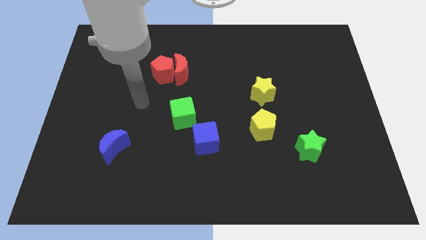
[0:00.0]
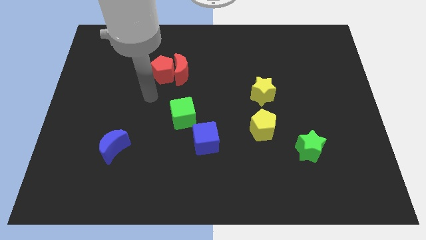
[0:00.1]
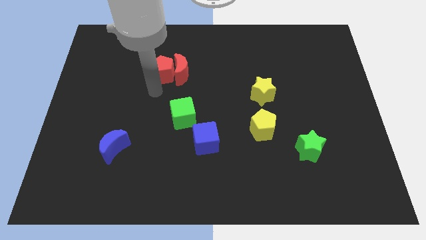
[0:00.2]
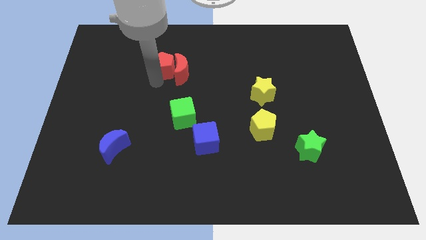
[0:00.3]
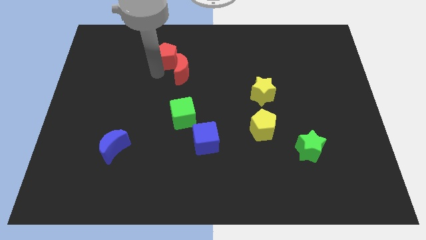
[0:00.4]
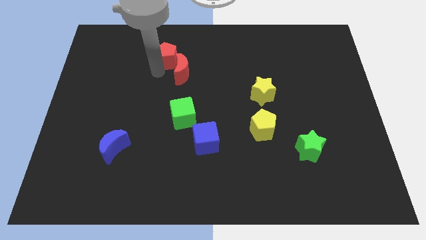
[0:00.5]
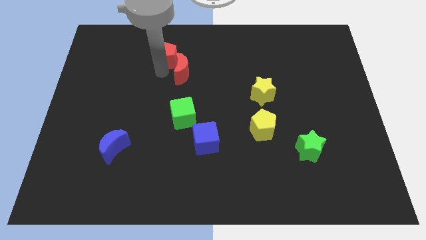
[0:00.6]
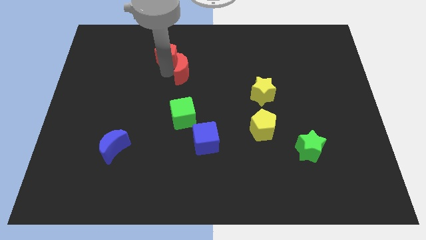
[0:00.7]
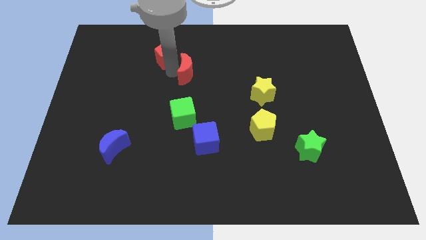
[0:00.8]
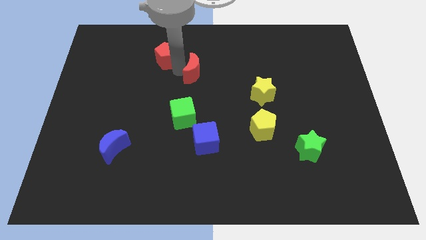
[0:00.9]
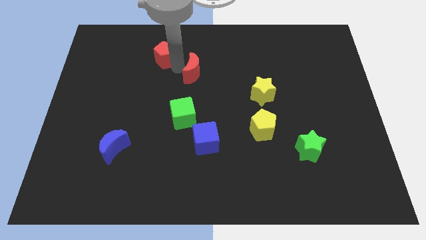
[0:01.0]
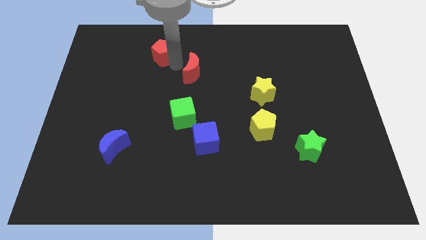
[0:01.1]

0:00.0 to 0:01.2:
move the red moon away from the red pentagon

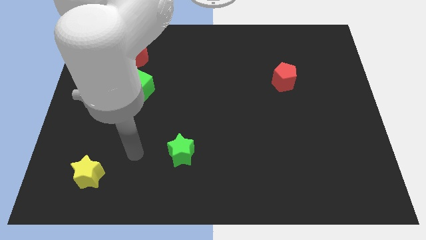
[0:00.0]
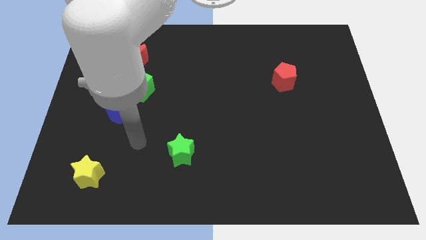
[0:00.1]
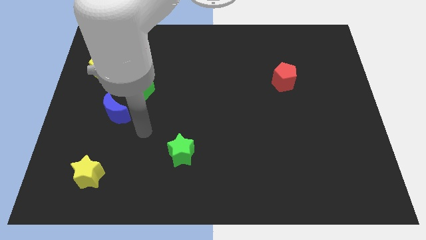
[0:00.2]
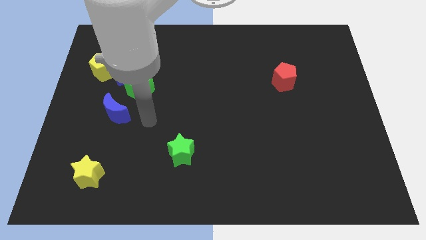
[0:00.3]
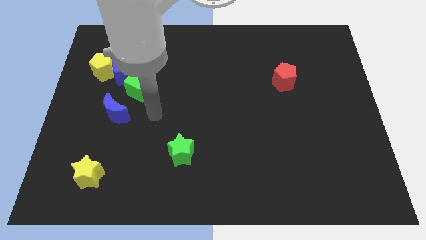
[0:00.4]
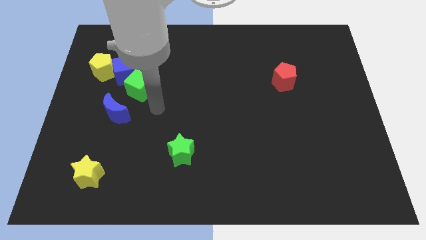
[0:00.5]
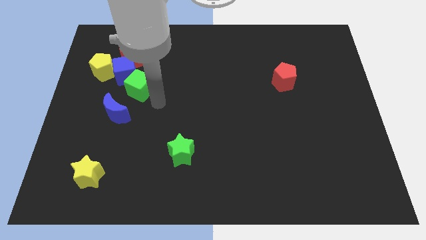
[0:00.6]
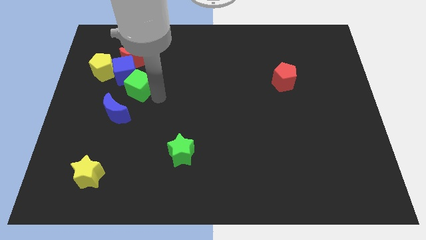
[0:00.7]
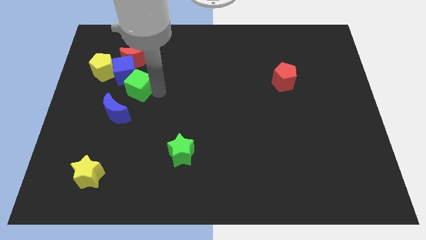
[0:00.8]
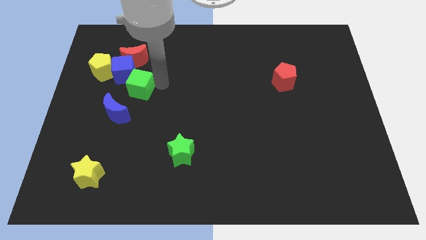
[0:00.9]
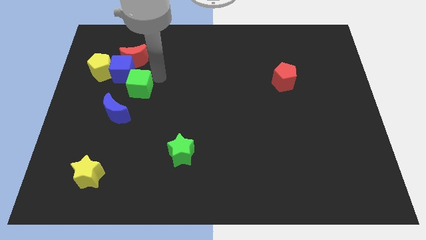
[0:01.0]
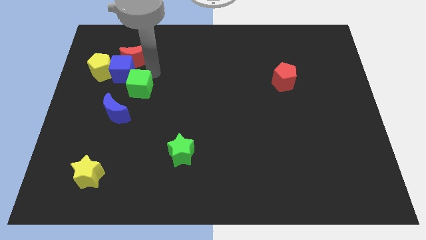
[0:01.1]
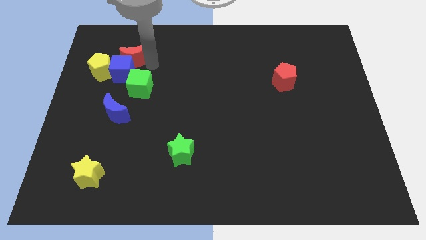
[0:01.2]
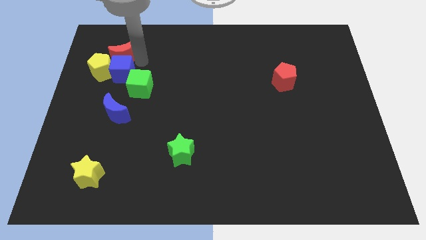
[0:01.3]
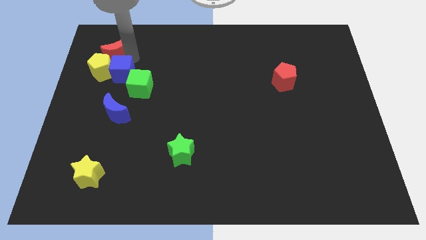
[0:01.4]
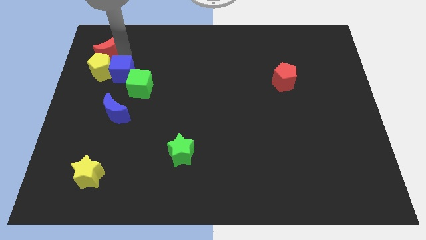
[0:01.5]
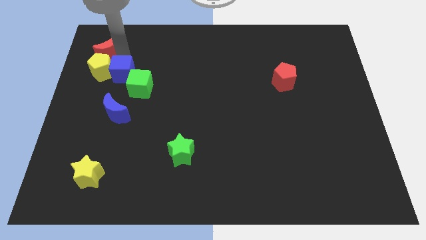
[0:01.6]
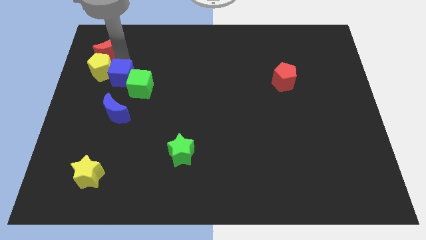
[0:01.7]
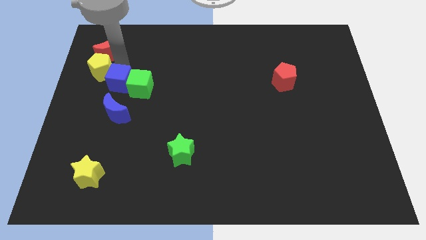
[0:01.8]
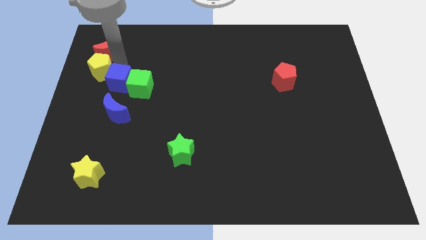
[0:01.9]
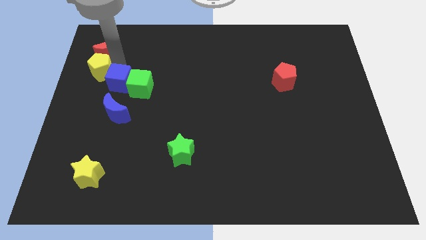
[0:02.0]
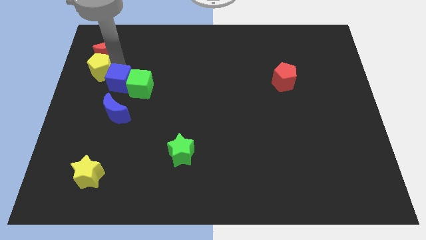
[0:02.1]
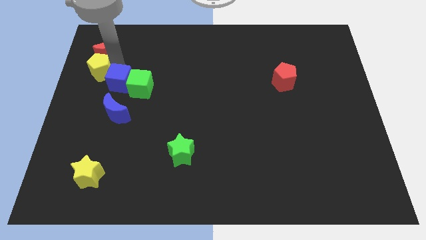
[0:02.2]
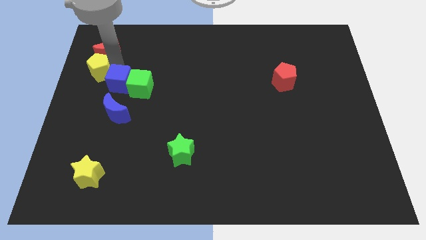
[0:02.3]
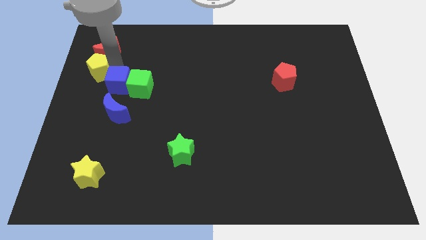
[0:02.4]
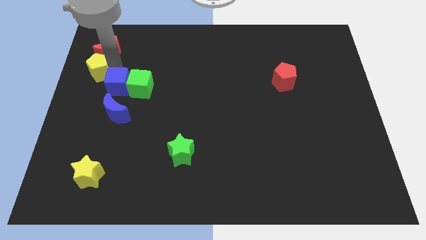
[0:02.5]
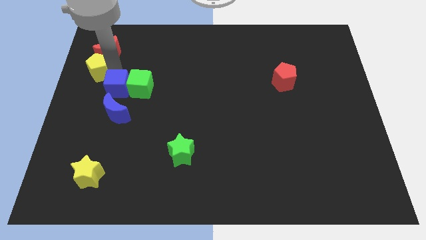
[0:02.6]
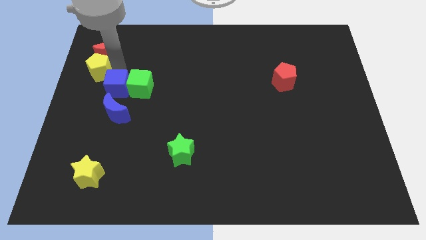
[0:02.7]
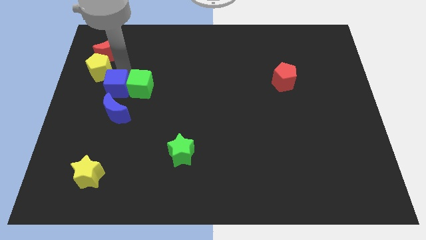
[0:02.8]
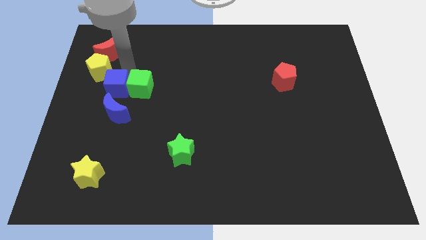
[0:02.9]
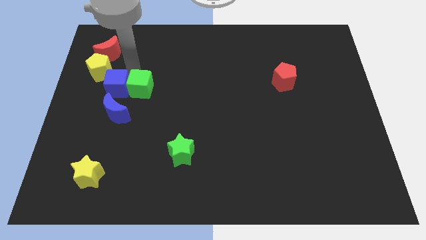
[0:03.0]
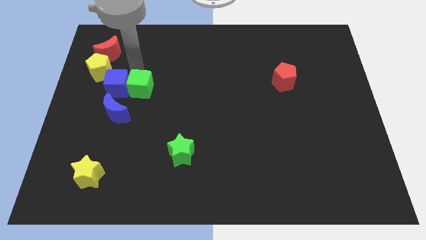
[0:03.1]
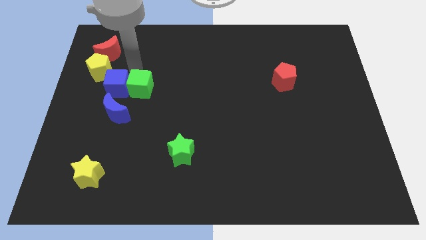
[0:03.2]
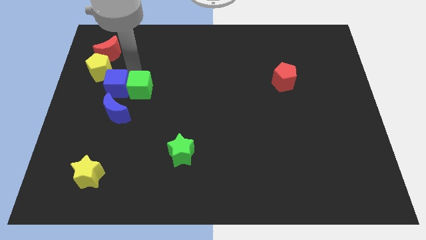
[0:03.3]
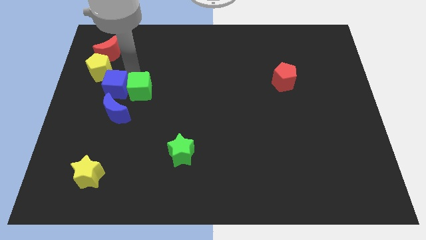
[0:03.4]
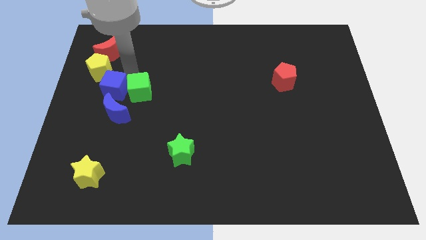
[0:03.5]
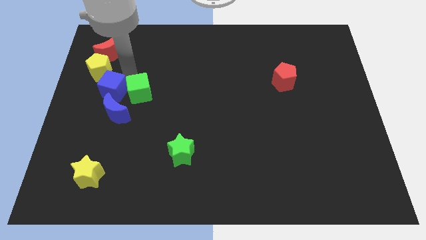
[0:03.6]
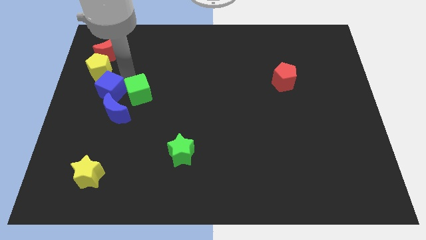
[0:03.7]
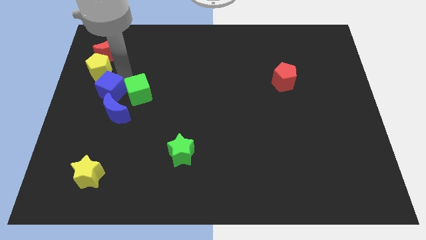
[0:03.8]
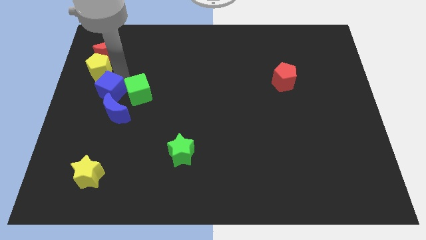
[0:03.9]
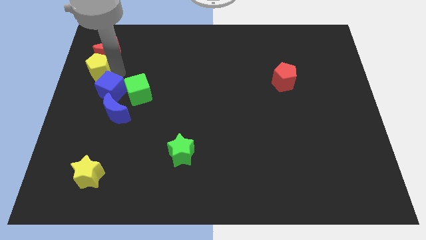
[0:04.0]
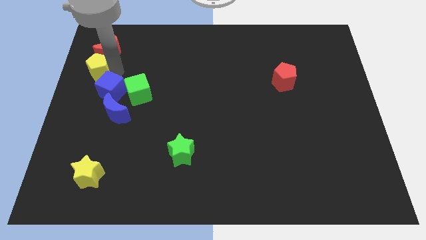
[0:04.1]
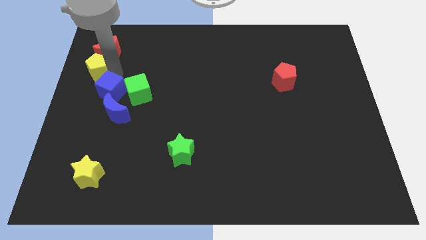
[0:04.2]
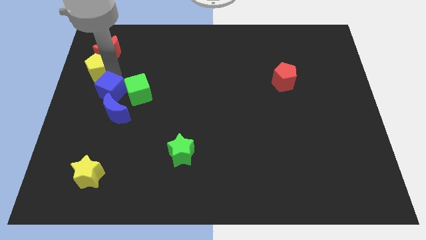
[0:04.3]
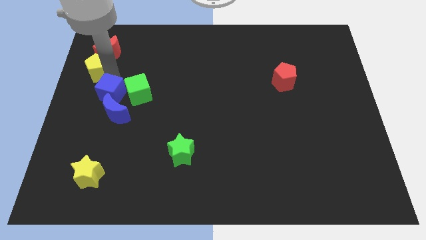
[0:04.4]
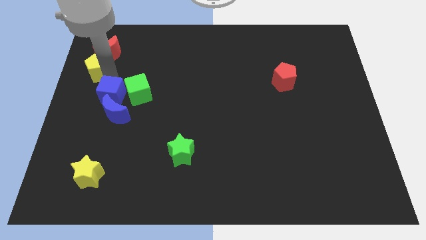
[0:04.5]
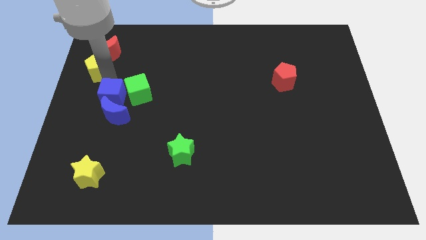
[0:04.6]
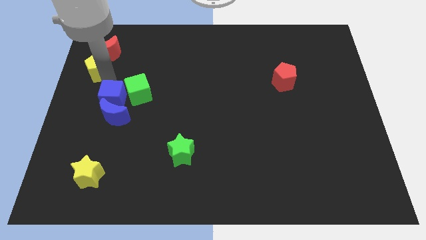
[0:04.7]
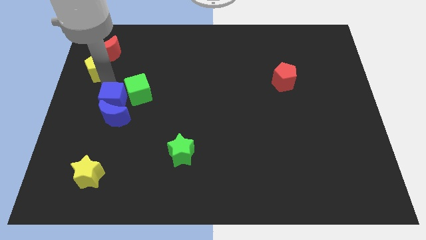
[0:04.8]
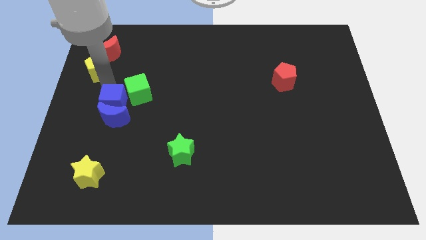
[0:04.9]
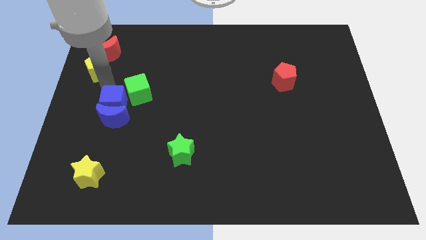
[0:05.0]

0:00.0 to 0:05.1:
pull the blue cube apart from the red moon, yellow pentagon, and green cube

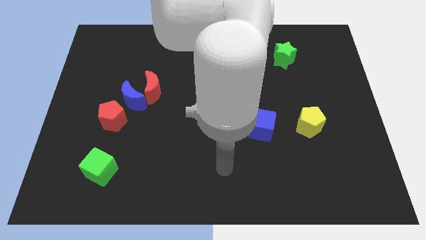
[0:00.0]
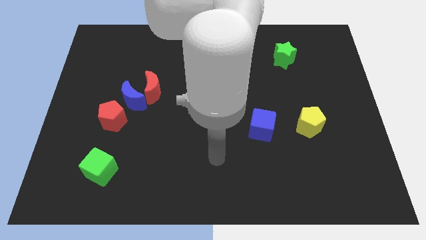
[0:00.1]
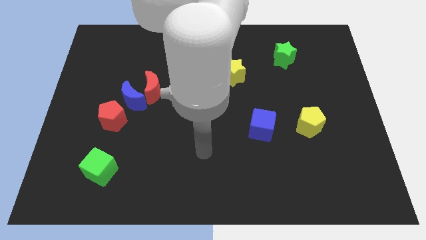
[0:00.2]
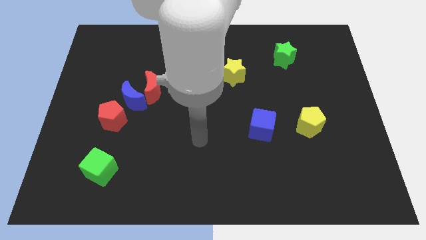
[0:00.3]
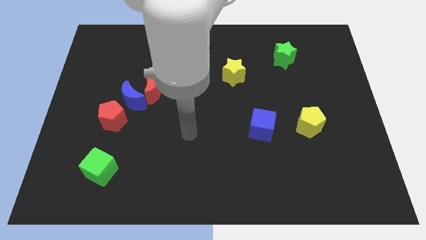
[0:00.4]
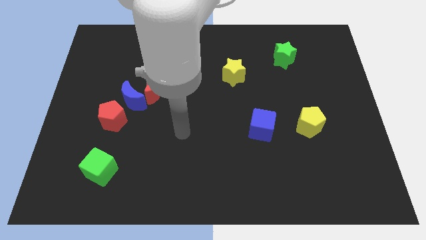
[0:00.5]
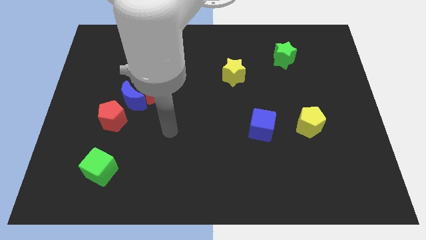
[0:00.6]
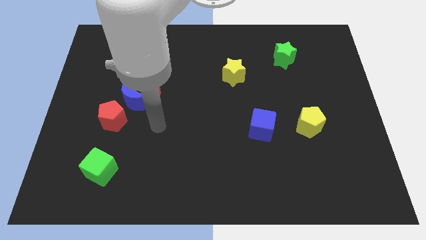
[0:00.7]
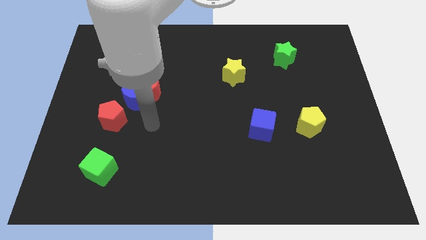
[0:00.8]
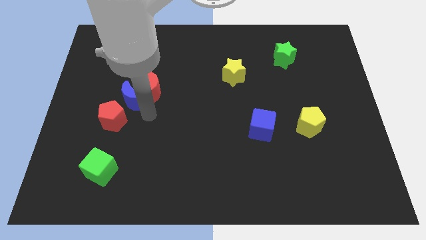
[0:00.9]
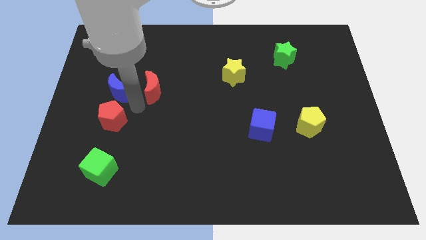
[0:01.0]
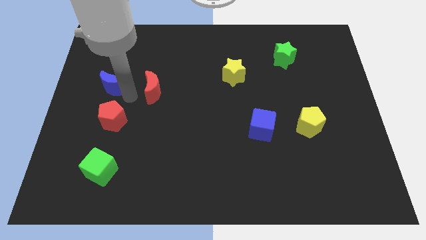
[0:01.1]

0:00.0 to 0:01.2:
pull the red moon apart from the blue moon

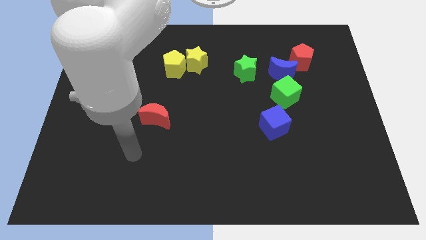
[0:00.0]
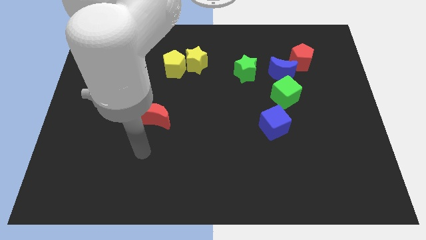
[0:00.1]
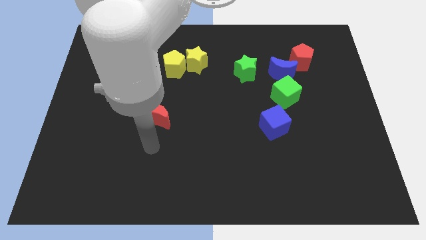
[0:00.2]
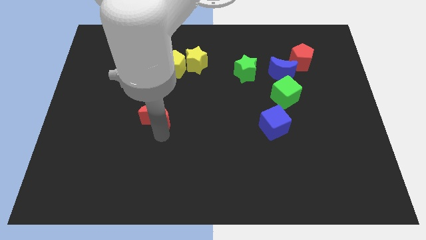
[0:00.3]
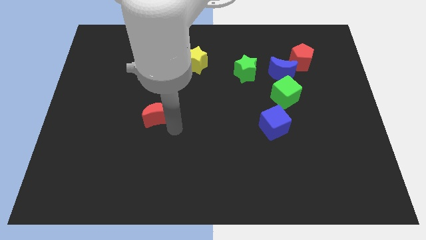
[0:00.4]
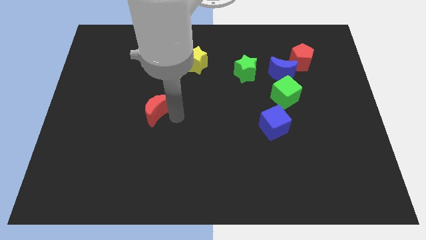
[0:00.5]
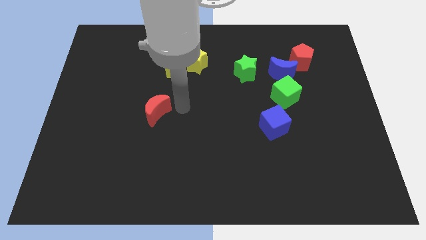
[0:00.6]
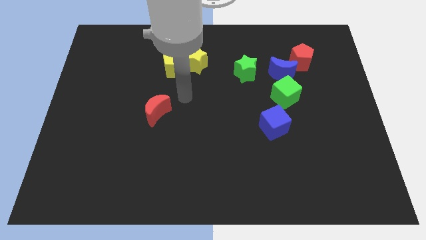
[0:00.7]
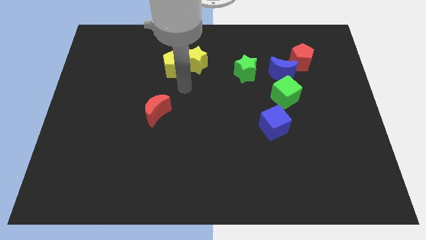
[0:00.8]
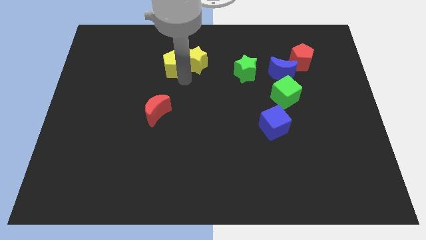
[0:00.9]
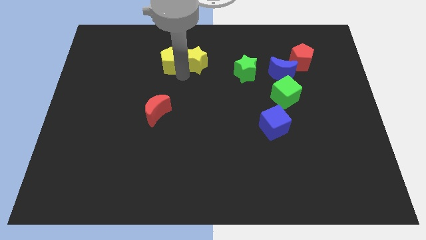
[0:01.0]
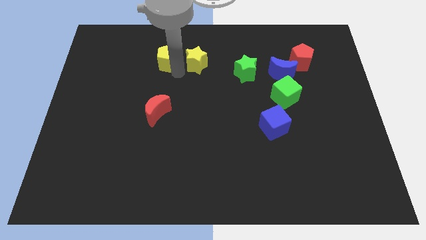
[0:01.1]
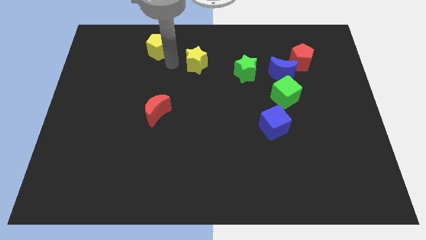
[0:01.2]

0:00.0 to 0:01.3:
separate the yellow star from the yellow pentagon

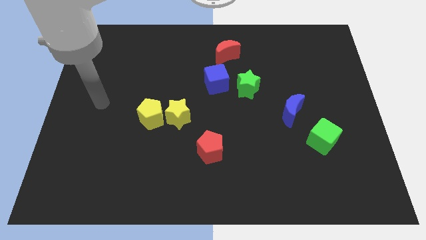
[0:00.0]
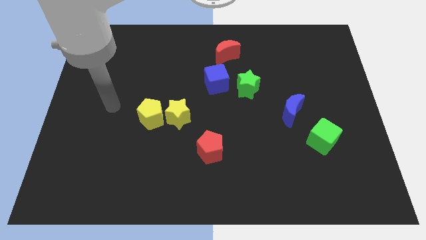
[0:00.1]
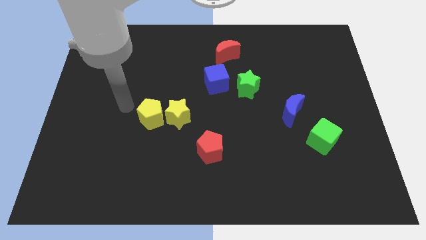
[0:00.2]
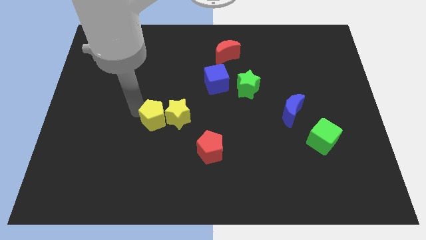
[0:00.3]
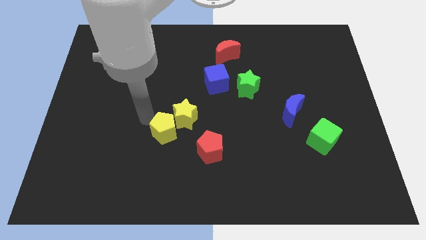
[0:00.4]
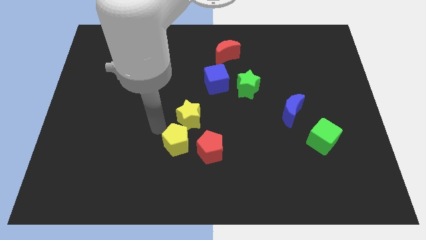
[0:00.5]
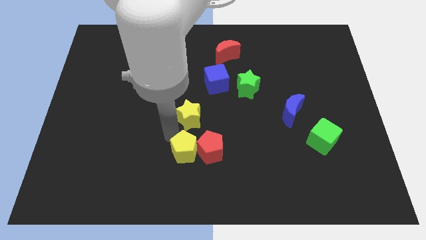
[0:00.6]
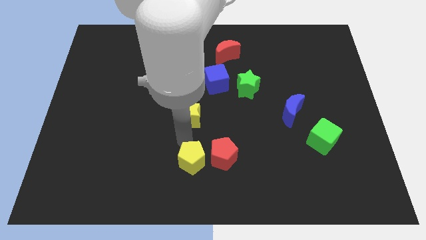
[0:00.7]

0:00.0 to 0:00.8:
move the yellow star away from the yellow pentagon
